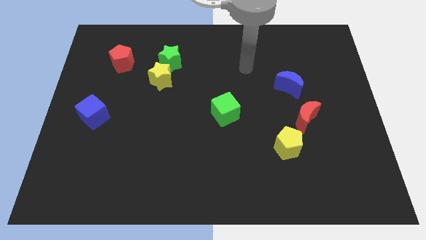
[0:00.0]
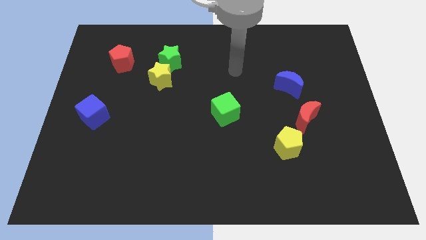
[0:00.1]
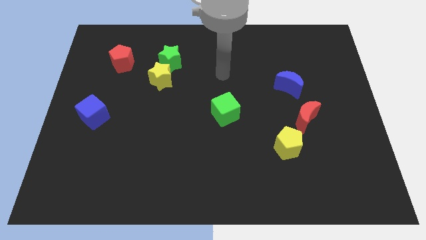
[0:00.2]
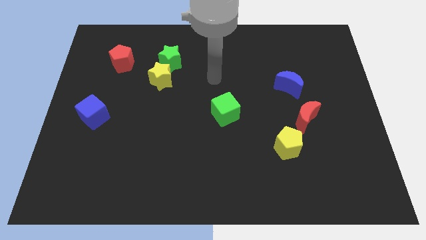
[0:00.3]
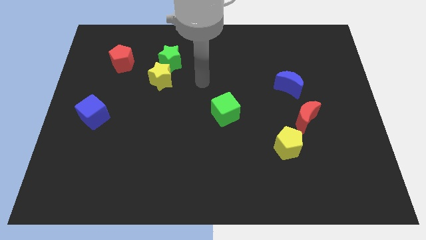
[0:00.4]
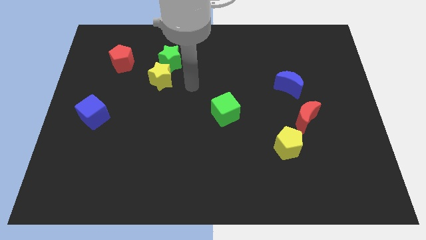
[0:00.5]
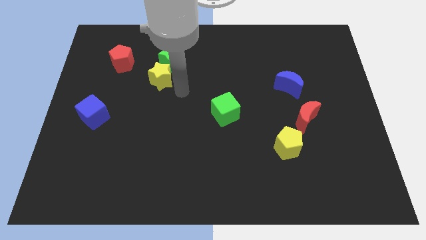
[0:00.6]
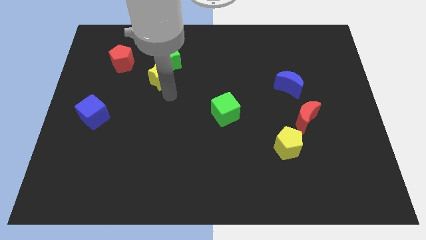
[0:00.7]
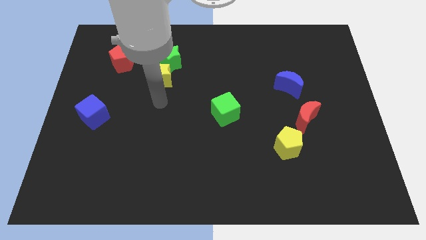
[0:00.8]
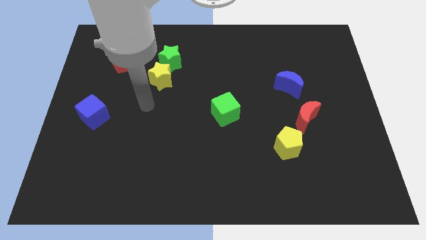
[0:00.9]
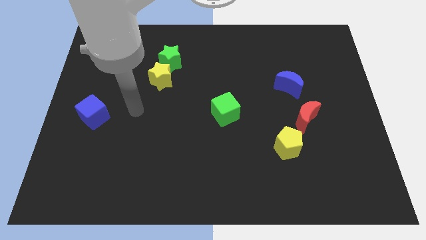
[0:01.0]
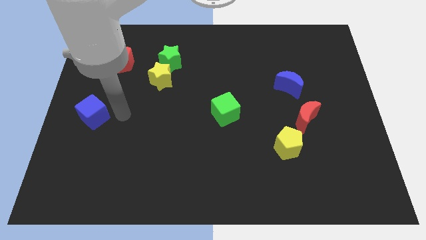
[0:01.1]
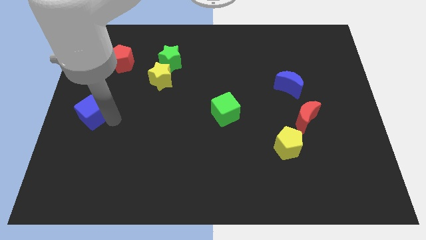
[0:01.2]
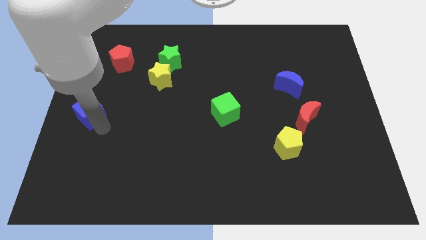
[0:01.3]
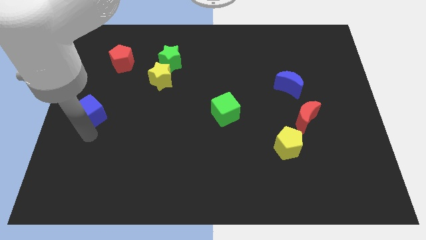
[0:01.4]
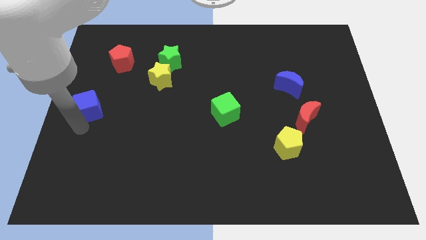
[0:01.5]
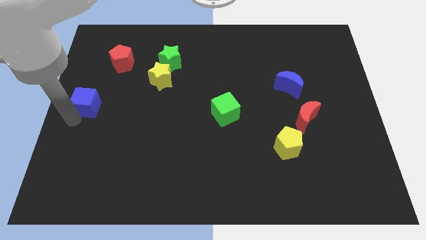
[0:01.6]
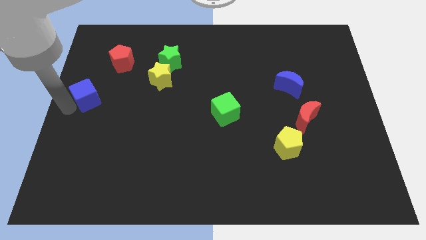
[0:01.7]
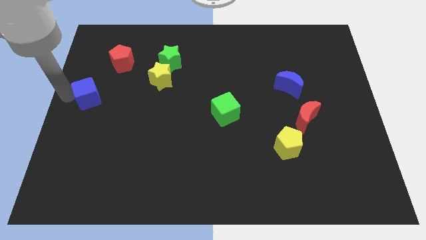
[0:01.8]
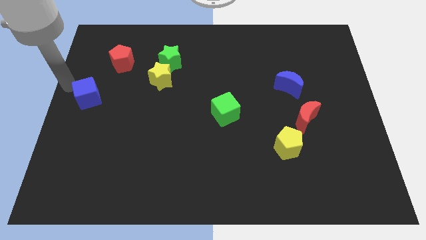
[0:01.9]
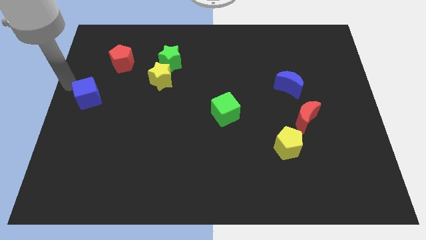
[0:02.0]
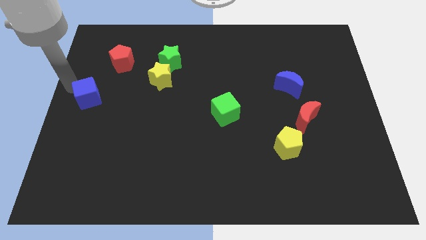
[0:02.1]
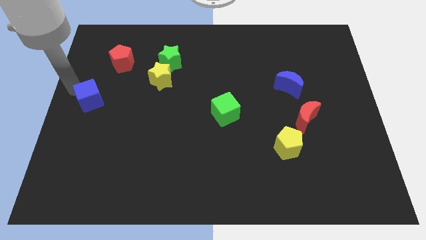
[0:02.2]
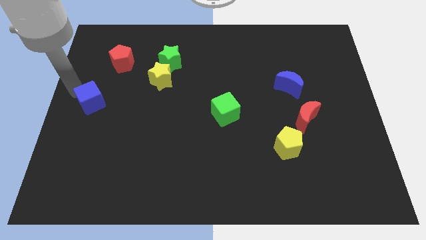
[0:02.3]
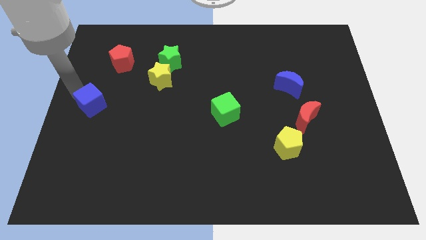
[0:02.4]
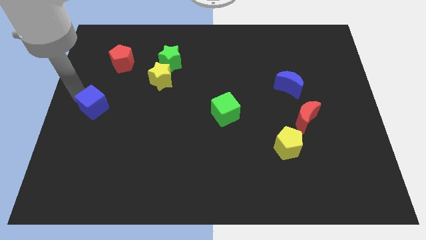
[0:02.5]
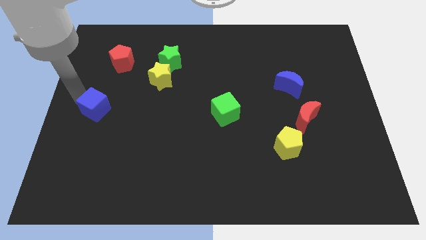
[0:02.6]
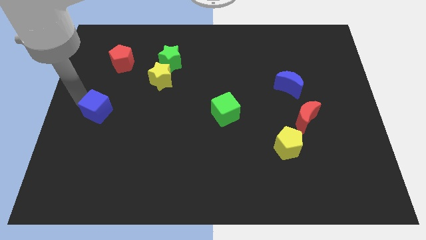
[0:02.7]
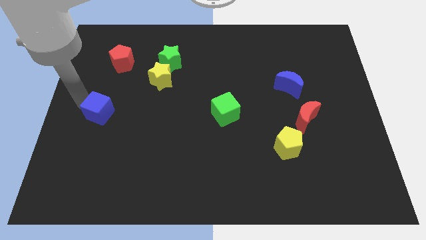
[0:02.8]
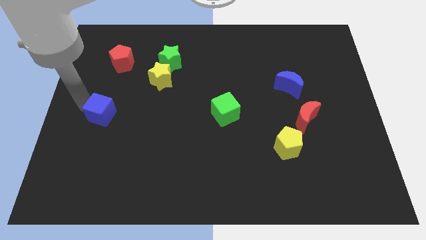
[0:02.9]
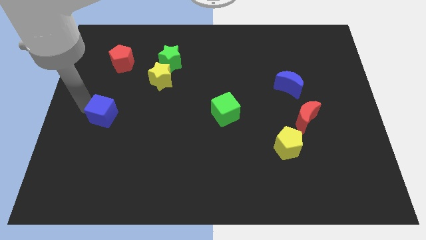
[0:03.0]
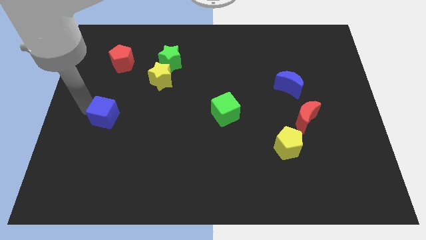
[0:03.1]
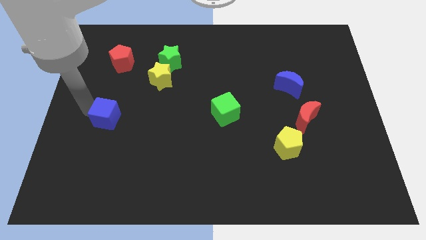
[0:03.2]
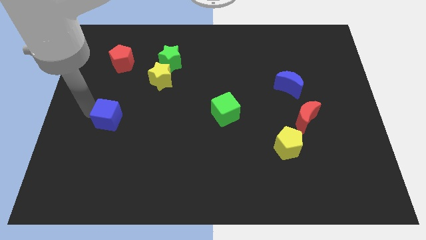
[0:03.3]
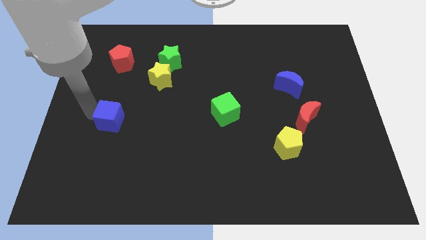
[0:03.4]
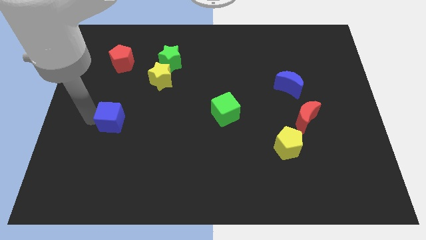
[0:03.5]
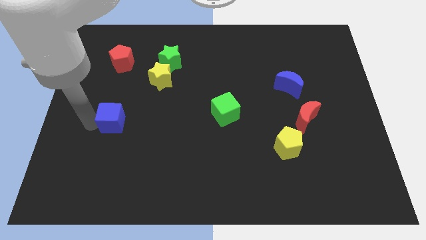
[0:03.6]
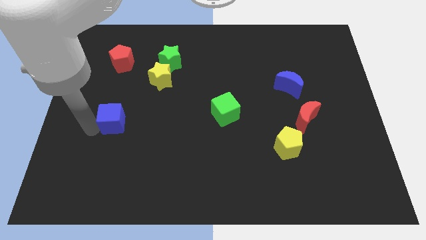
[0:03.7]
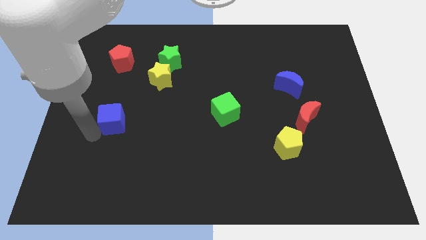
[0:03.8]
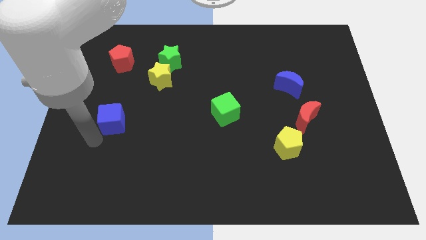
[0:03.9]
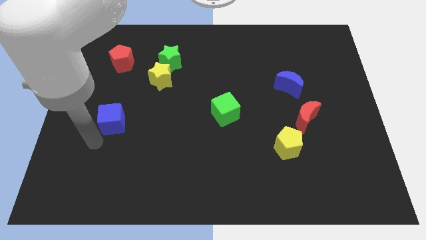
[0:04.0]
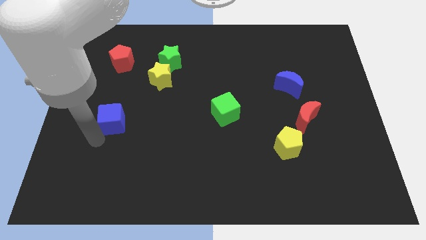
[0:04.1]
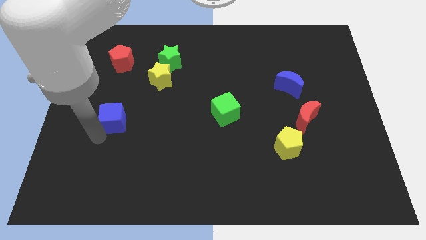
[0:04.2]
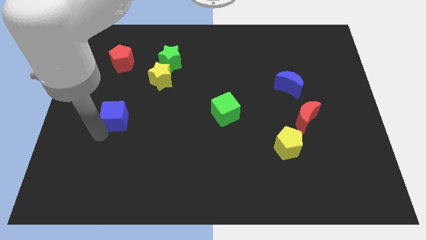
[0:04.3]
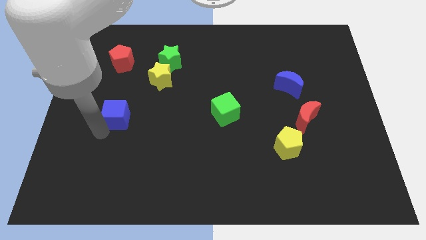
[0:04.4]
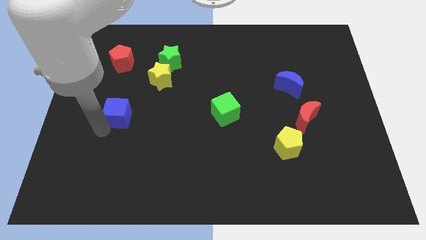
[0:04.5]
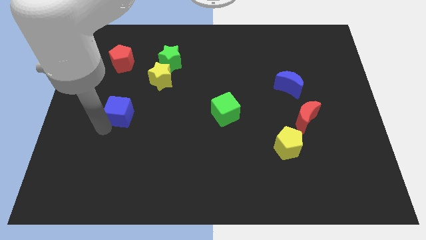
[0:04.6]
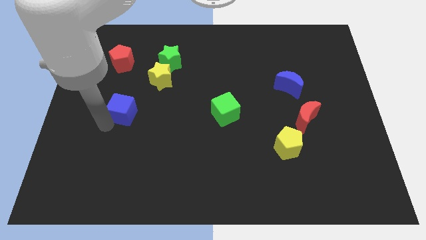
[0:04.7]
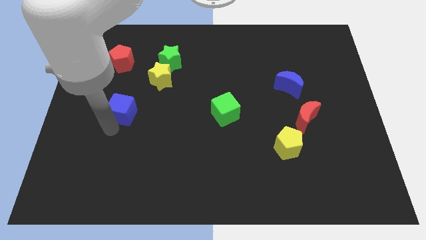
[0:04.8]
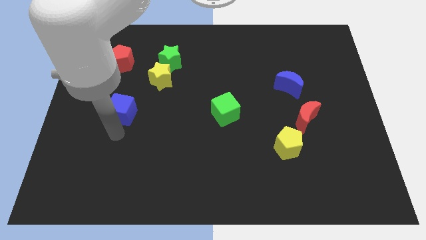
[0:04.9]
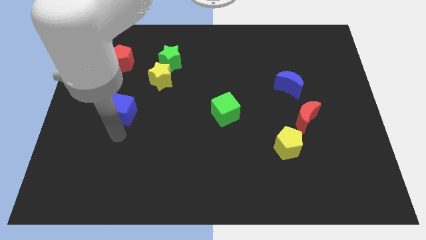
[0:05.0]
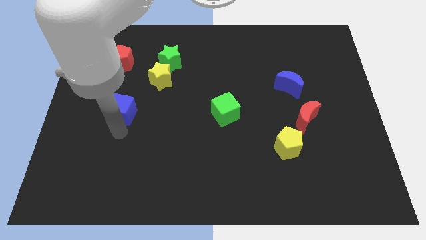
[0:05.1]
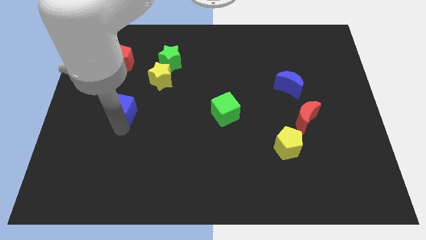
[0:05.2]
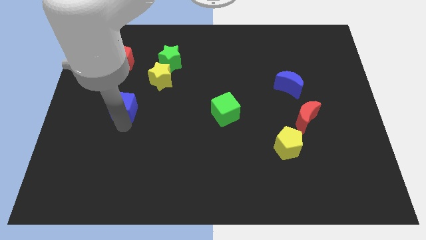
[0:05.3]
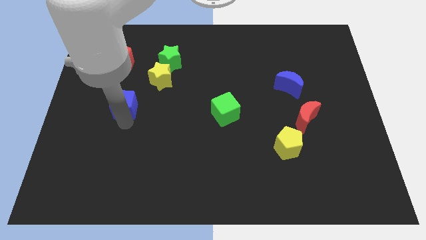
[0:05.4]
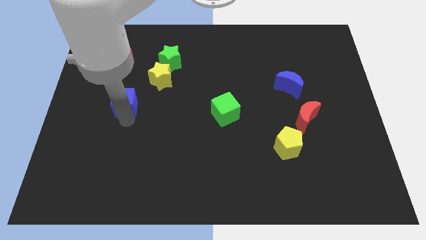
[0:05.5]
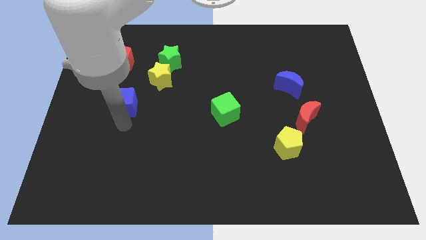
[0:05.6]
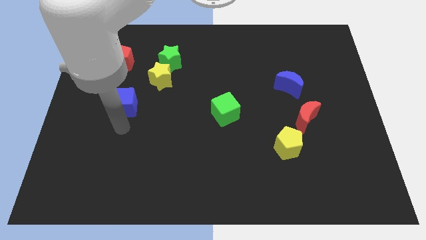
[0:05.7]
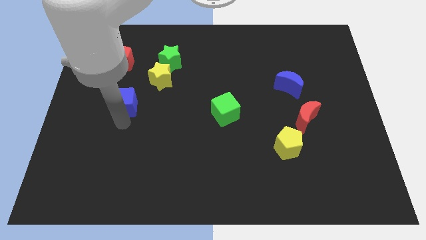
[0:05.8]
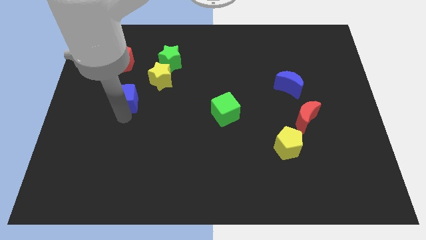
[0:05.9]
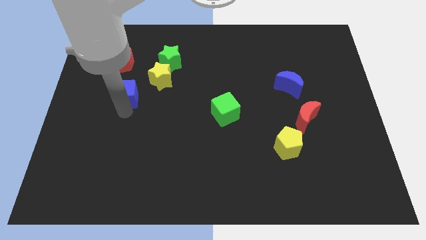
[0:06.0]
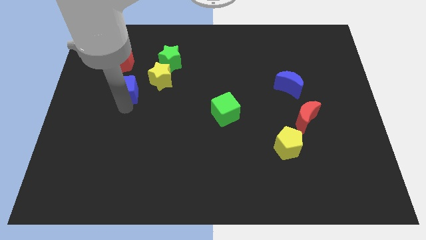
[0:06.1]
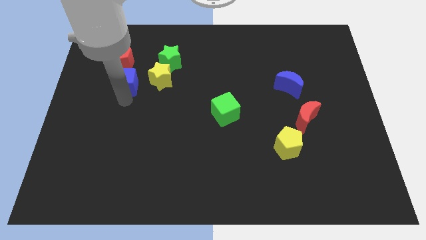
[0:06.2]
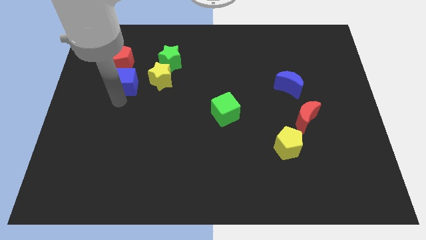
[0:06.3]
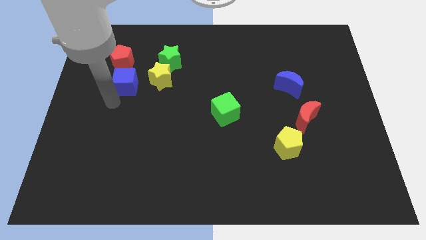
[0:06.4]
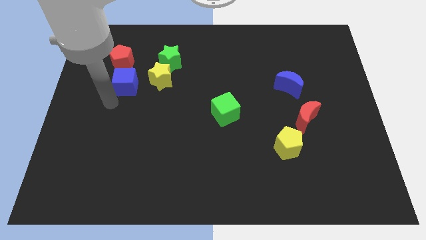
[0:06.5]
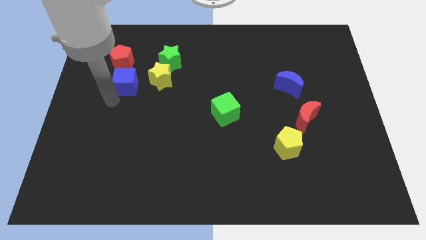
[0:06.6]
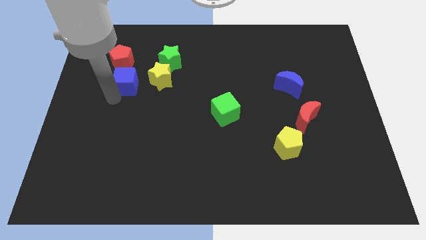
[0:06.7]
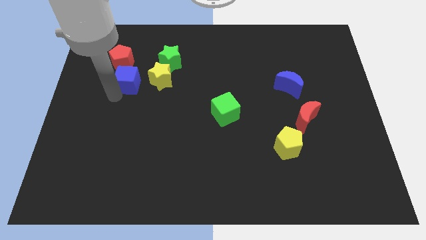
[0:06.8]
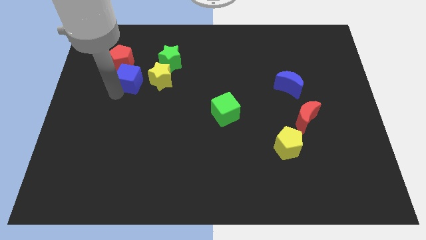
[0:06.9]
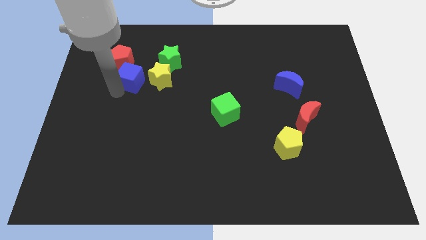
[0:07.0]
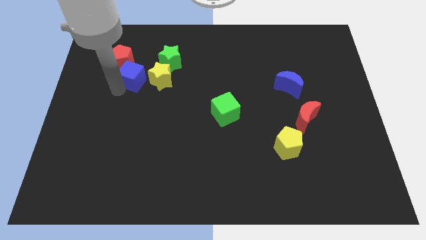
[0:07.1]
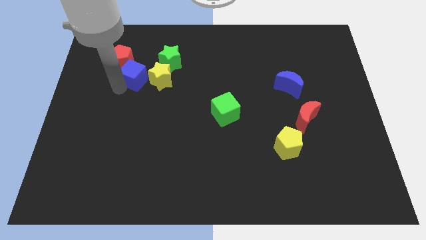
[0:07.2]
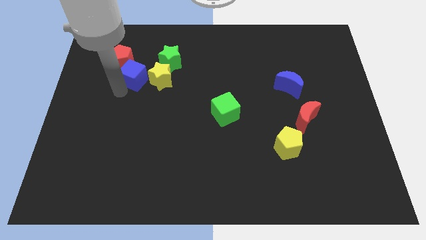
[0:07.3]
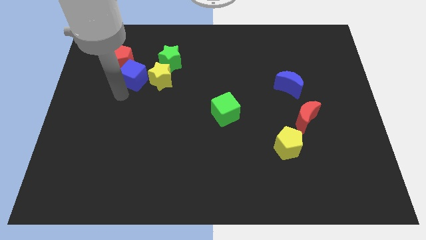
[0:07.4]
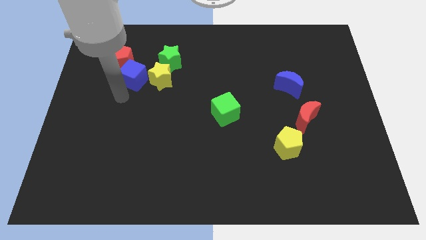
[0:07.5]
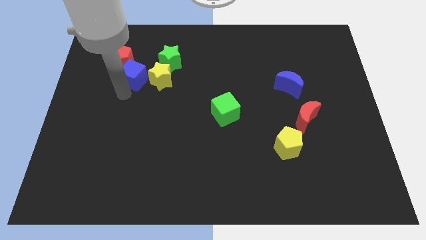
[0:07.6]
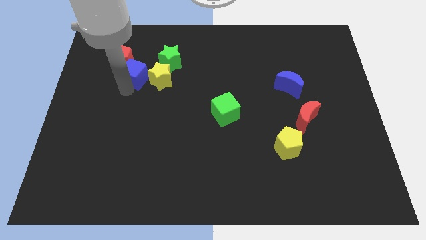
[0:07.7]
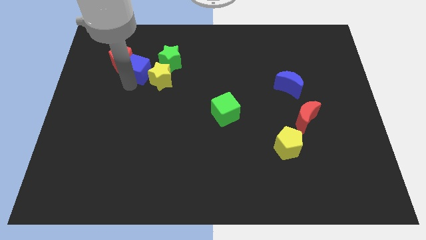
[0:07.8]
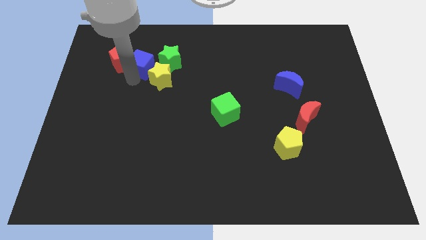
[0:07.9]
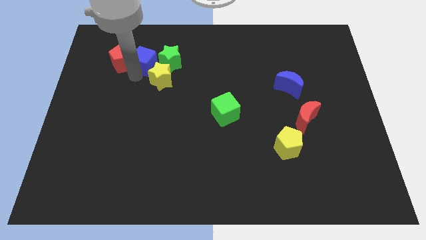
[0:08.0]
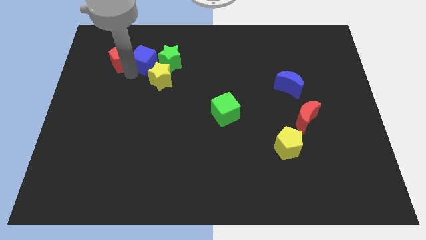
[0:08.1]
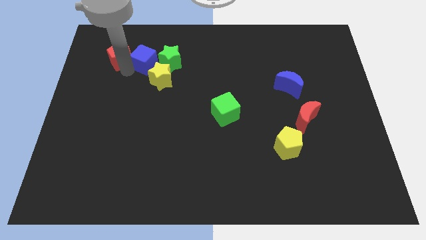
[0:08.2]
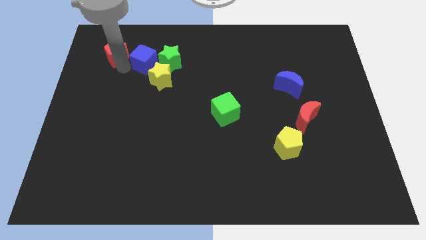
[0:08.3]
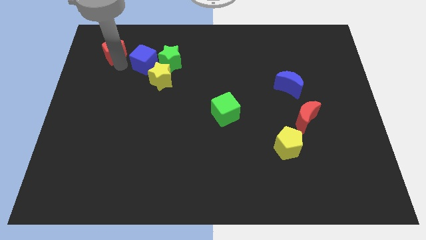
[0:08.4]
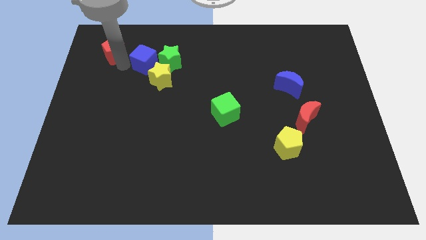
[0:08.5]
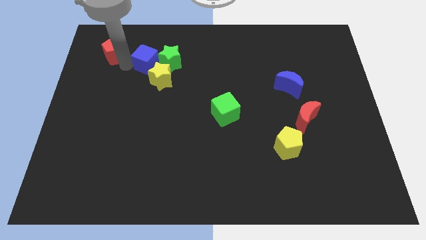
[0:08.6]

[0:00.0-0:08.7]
put the blue cube to the green star
